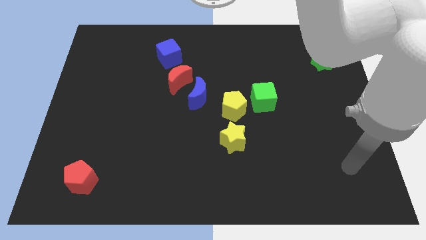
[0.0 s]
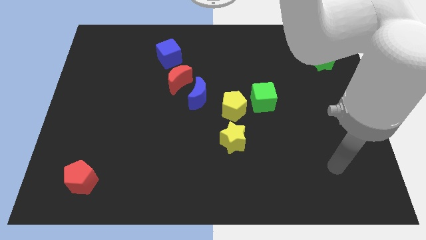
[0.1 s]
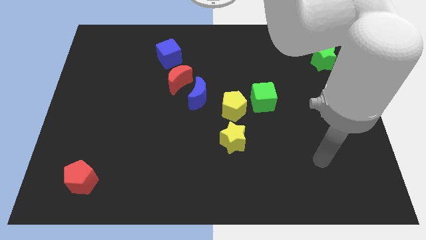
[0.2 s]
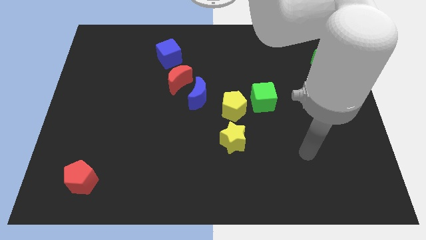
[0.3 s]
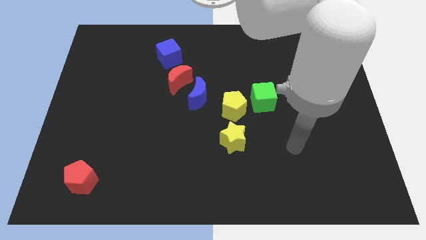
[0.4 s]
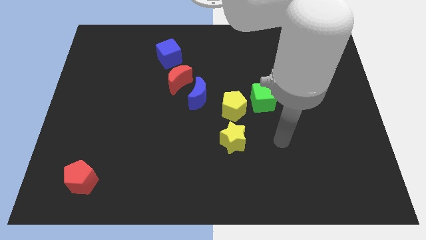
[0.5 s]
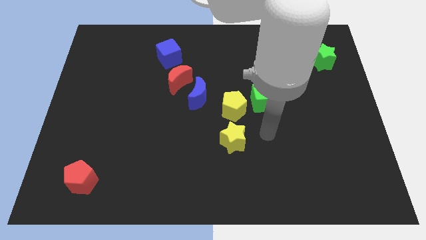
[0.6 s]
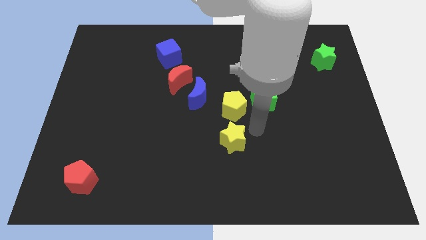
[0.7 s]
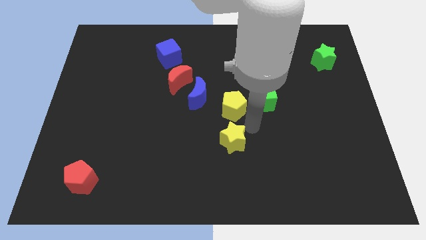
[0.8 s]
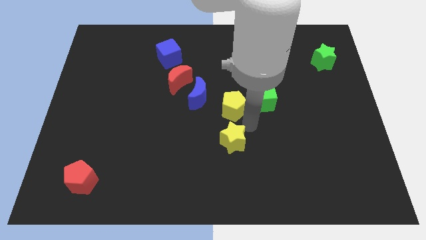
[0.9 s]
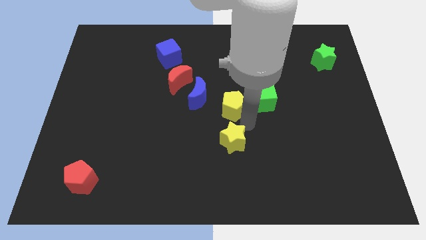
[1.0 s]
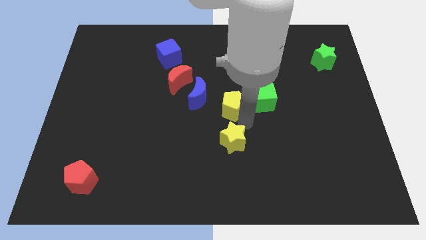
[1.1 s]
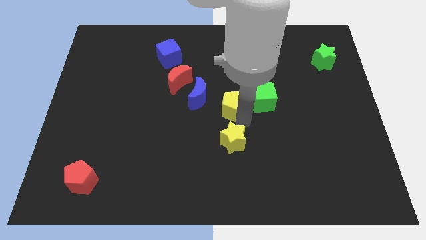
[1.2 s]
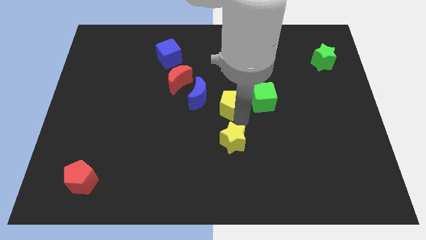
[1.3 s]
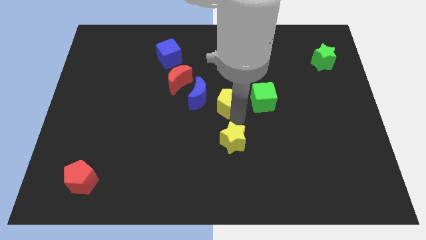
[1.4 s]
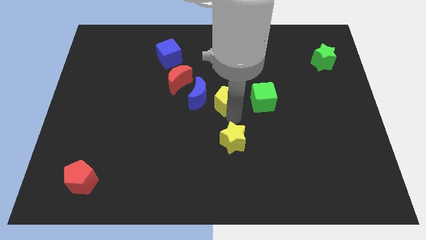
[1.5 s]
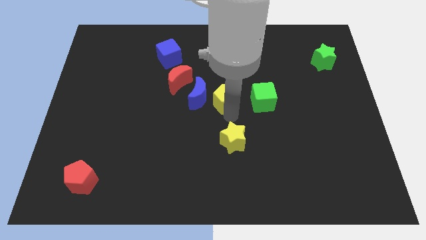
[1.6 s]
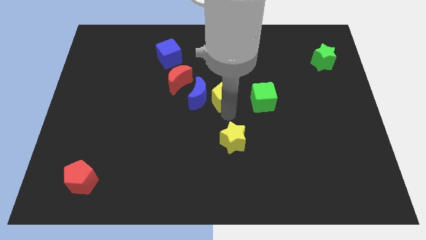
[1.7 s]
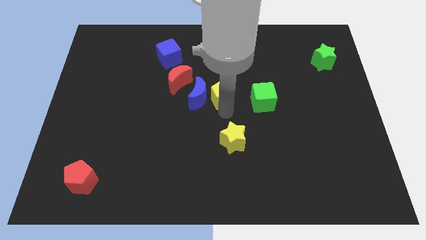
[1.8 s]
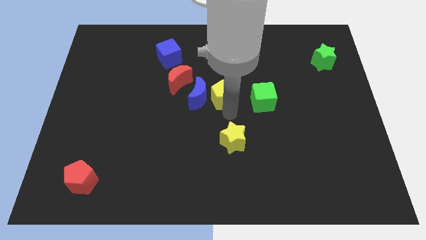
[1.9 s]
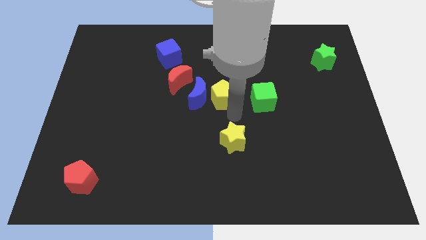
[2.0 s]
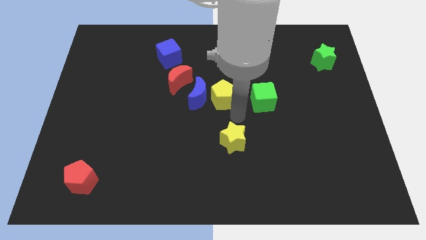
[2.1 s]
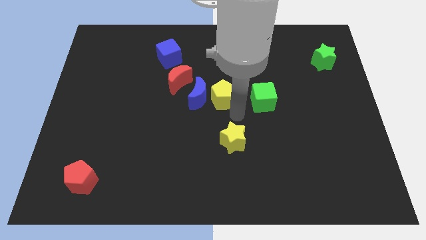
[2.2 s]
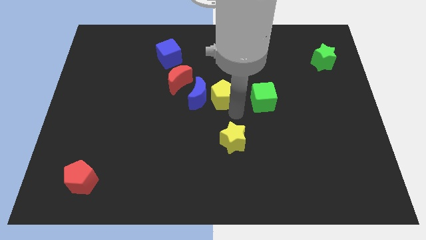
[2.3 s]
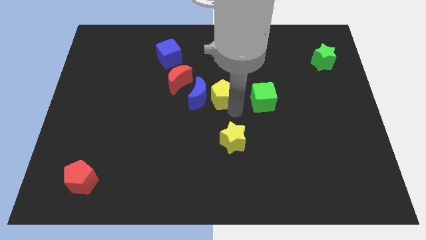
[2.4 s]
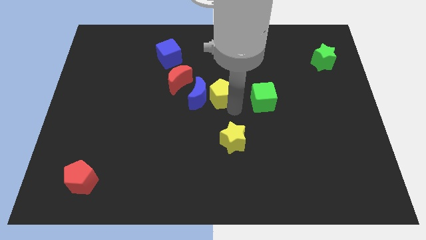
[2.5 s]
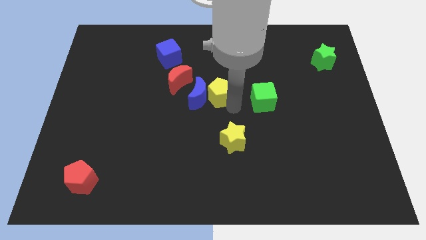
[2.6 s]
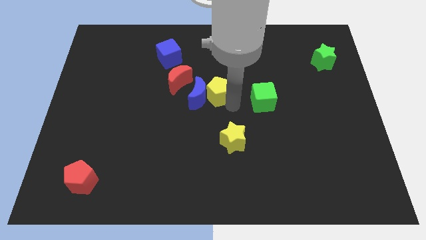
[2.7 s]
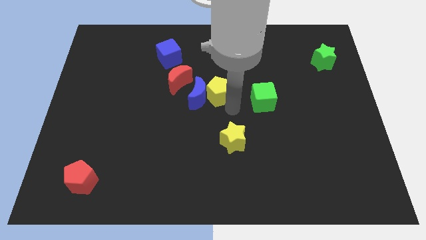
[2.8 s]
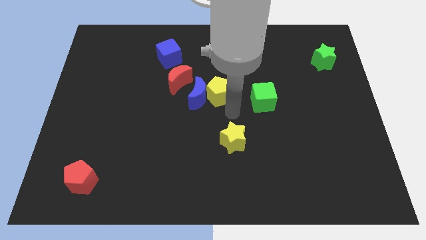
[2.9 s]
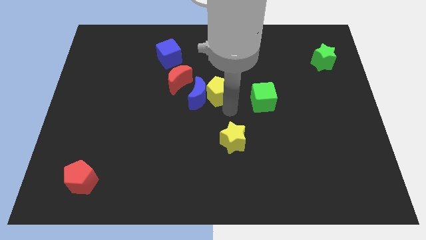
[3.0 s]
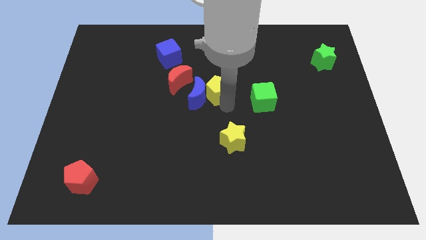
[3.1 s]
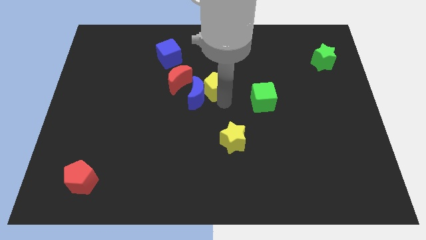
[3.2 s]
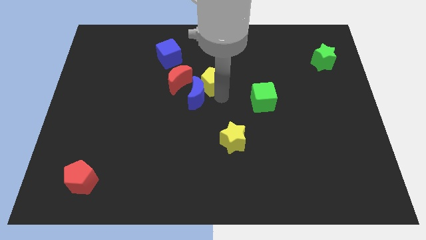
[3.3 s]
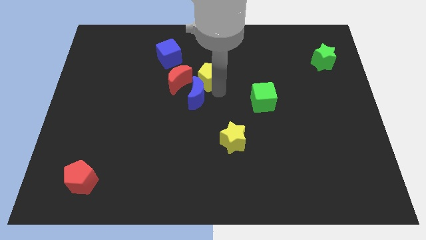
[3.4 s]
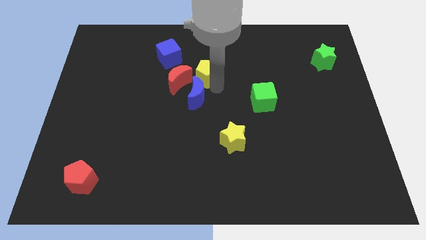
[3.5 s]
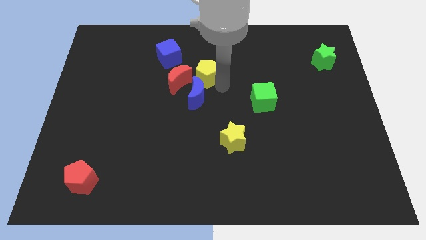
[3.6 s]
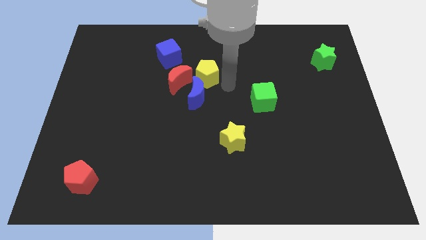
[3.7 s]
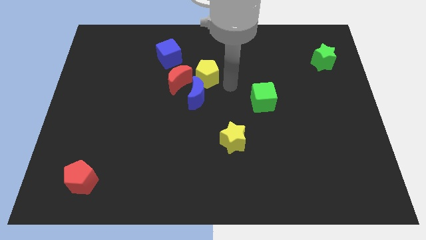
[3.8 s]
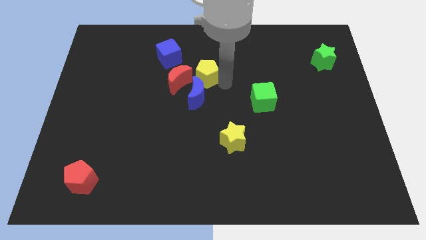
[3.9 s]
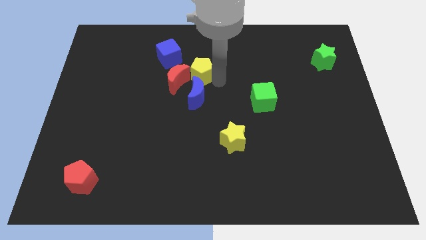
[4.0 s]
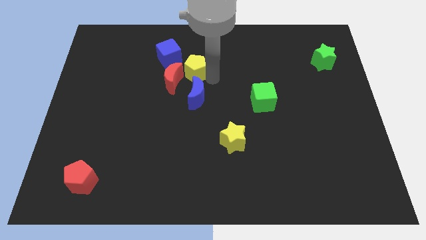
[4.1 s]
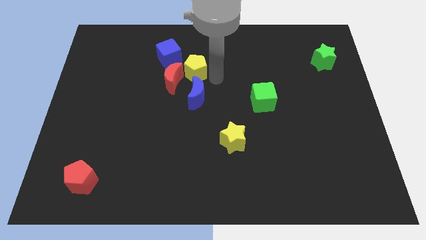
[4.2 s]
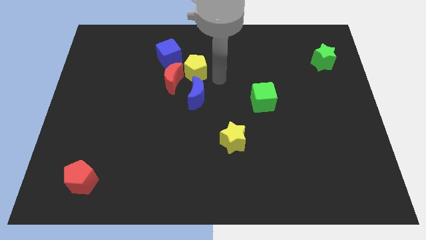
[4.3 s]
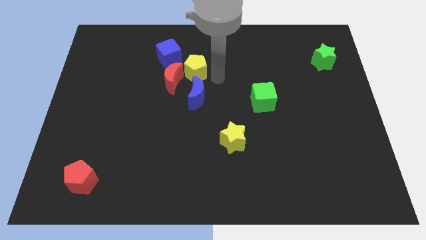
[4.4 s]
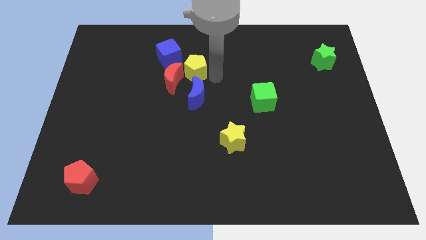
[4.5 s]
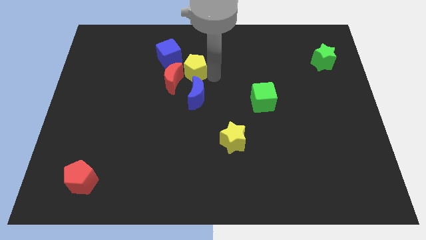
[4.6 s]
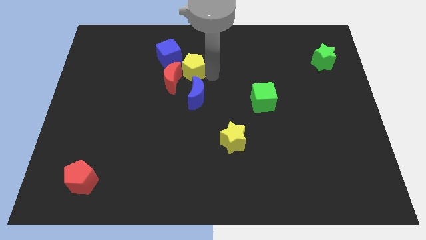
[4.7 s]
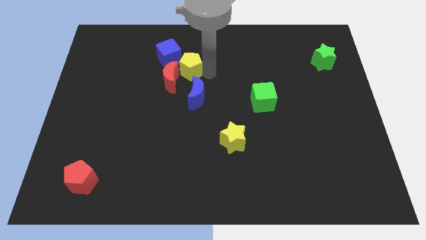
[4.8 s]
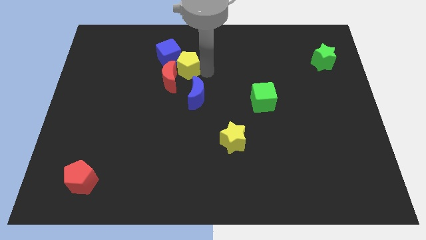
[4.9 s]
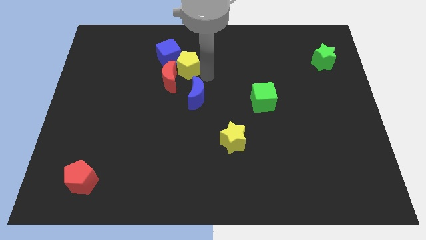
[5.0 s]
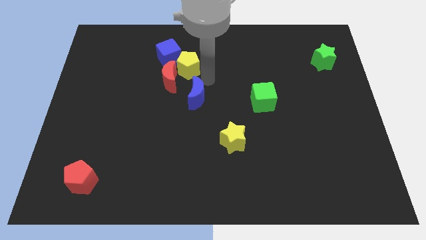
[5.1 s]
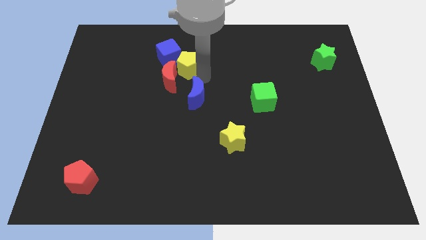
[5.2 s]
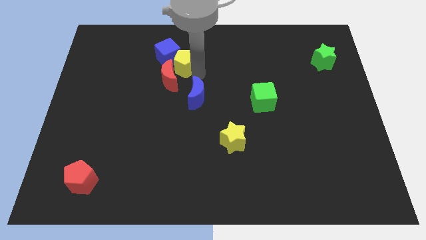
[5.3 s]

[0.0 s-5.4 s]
move the yellow pentagon to the blue cube

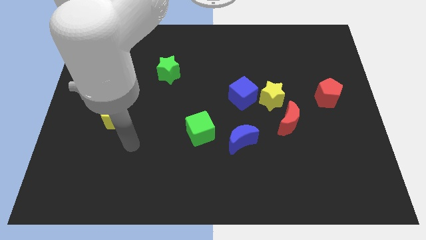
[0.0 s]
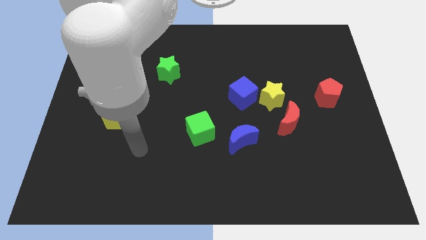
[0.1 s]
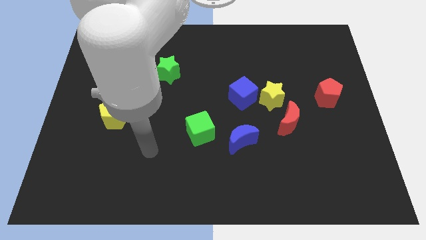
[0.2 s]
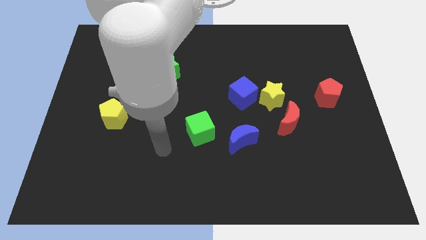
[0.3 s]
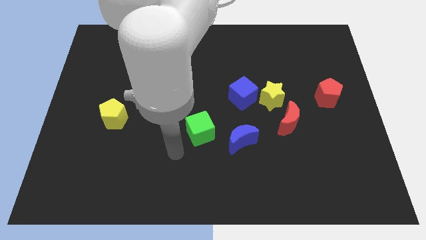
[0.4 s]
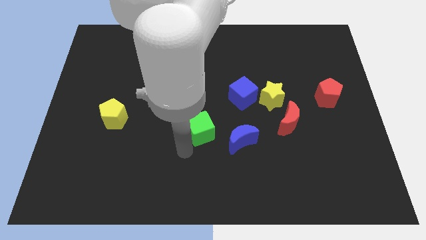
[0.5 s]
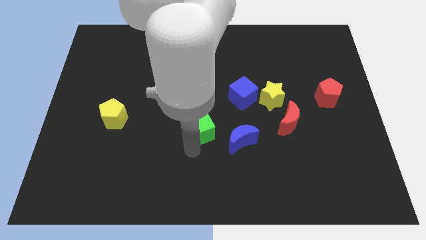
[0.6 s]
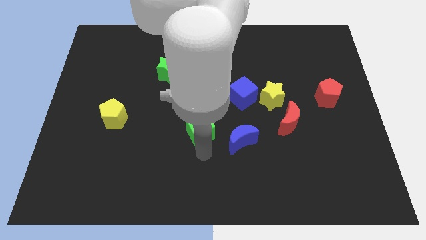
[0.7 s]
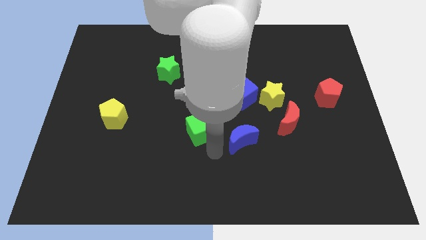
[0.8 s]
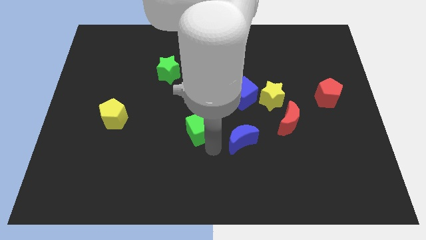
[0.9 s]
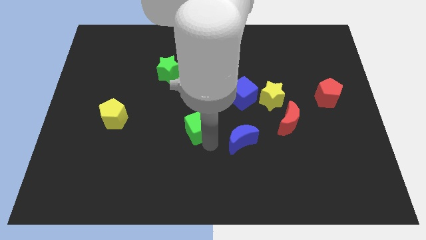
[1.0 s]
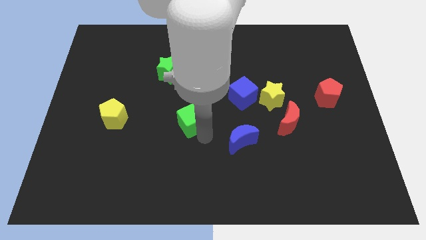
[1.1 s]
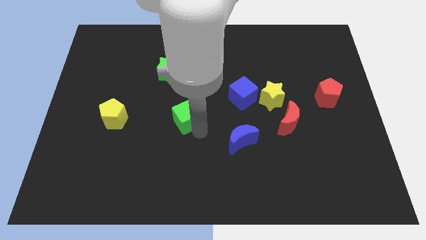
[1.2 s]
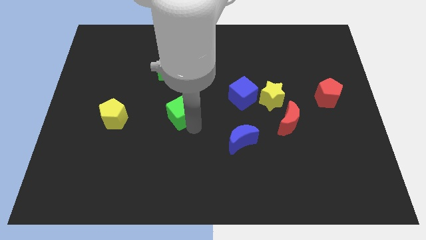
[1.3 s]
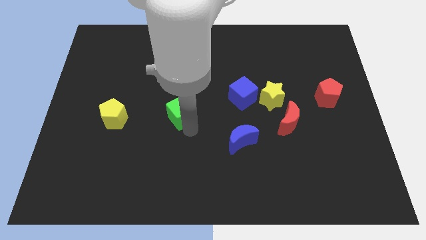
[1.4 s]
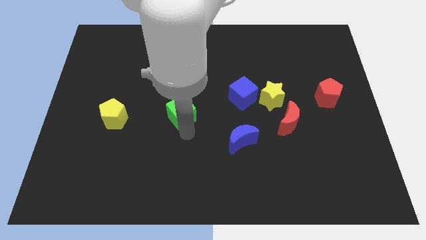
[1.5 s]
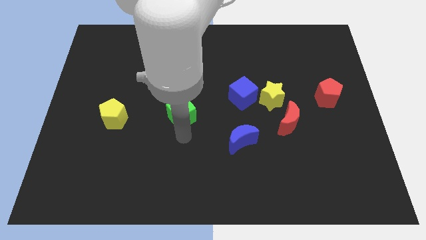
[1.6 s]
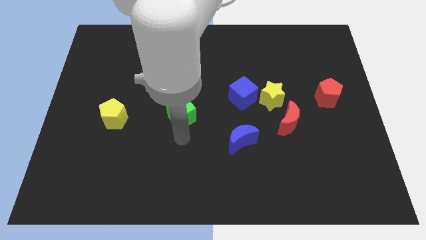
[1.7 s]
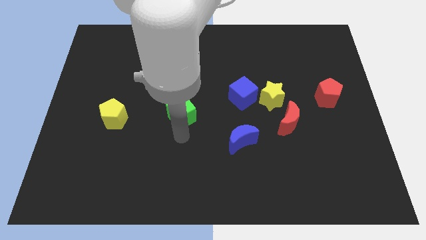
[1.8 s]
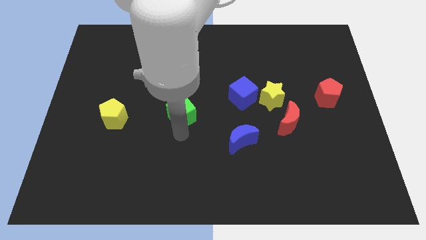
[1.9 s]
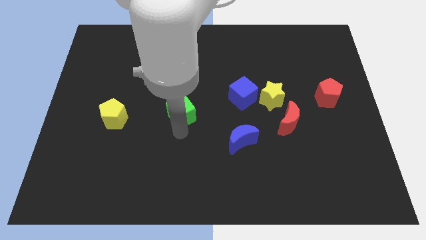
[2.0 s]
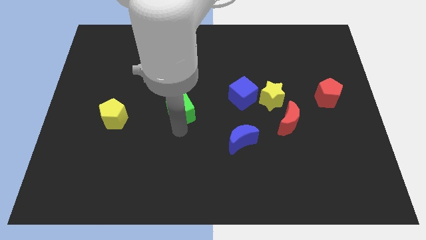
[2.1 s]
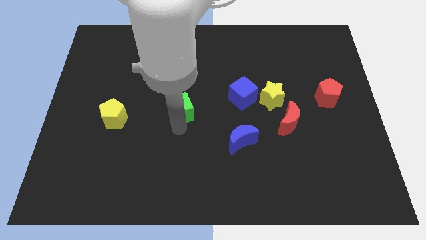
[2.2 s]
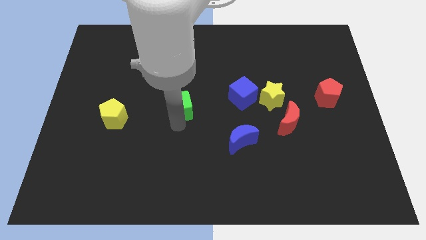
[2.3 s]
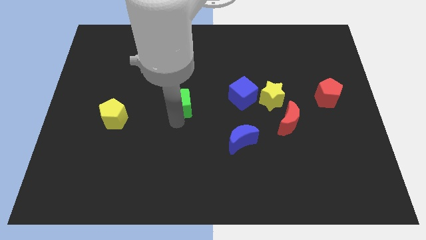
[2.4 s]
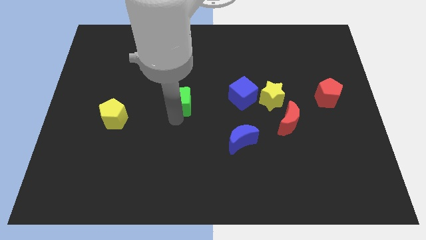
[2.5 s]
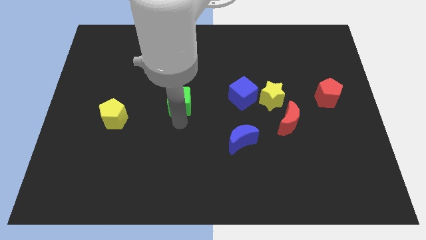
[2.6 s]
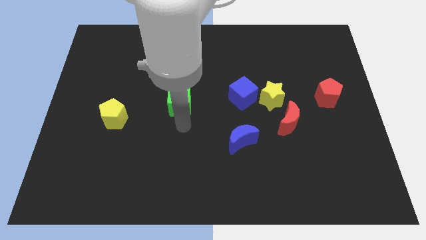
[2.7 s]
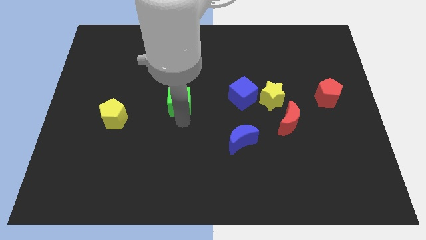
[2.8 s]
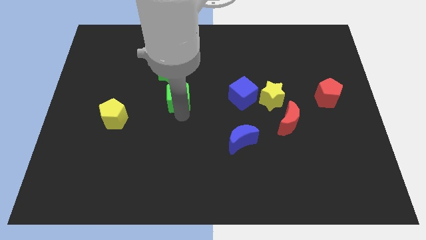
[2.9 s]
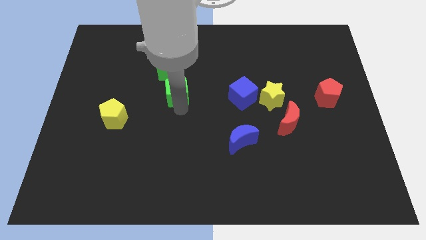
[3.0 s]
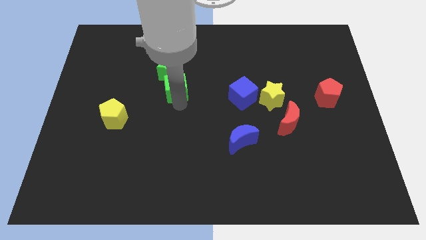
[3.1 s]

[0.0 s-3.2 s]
move the green cube to the green star
